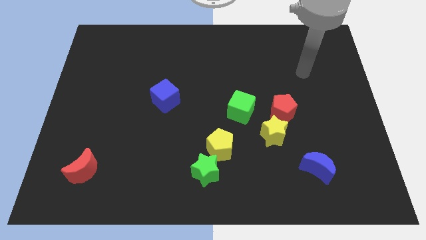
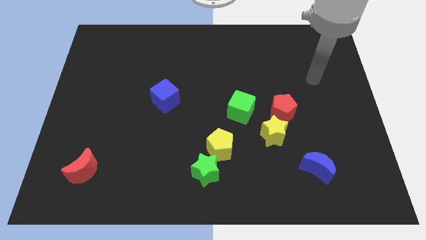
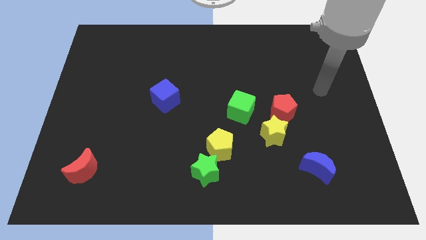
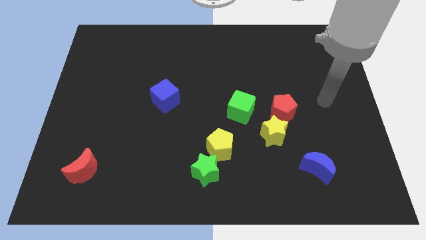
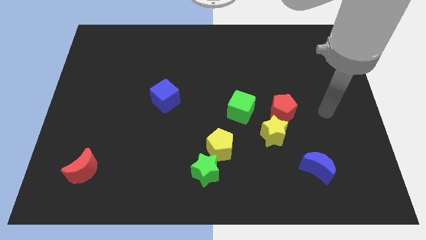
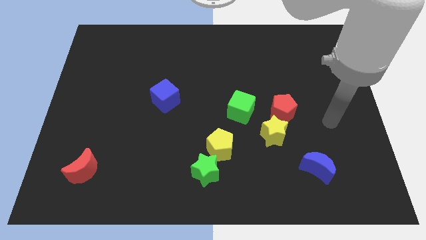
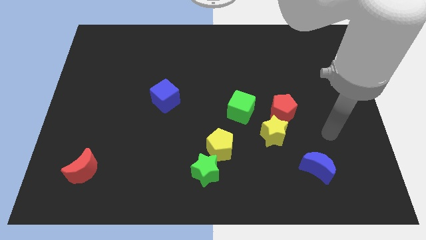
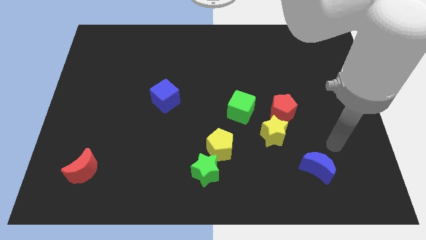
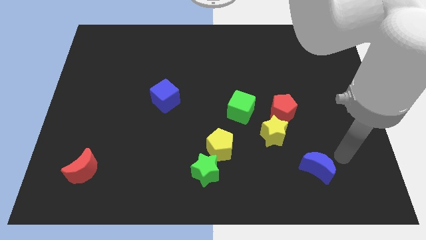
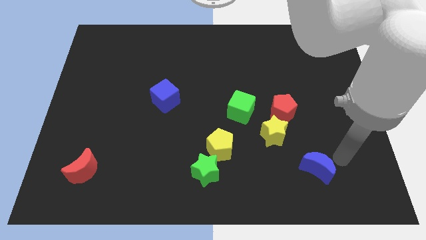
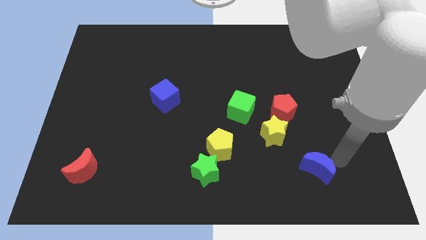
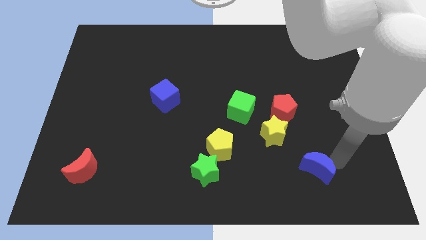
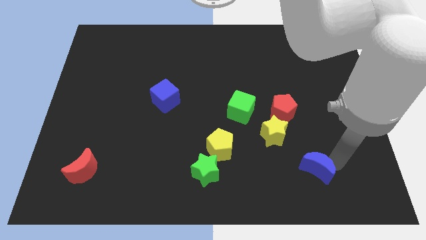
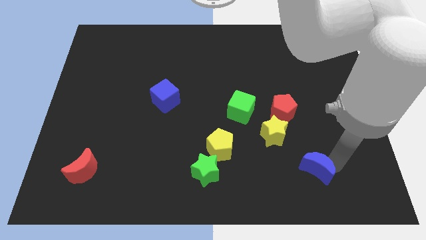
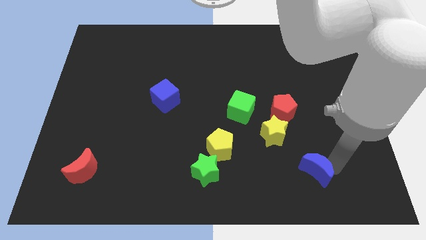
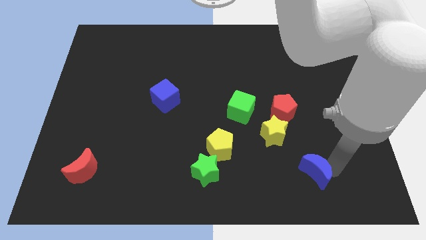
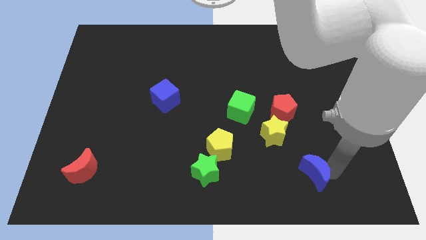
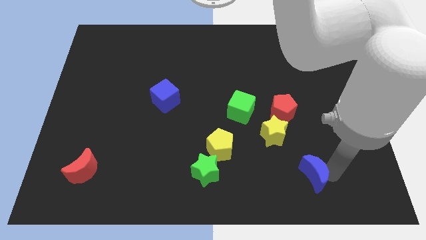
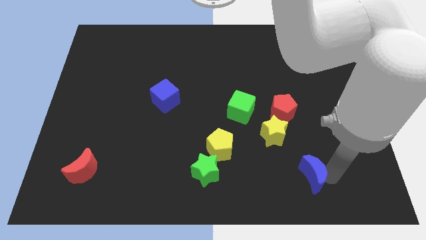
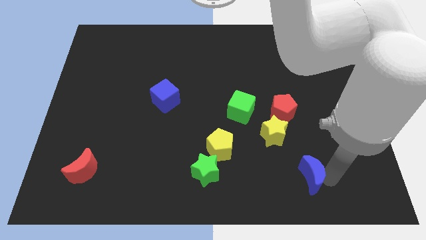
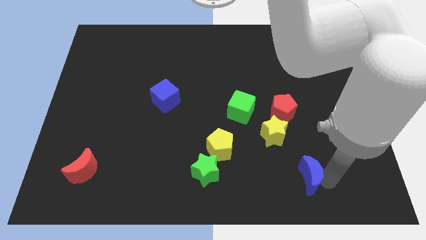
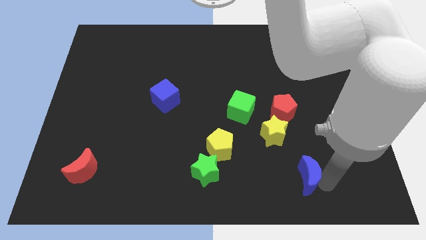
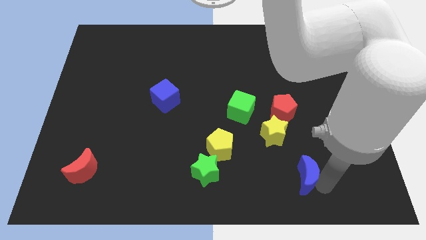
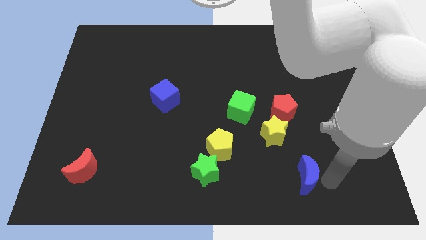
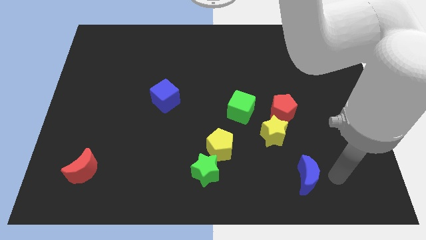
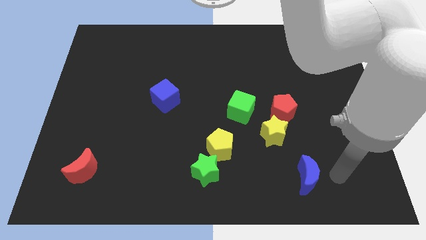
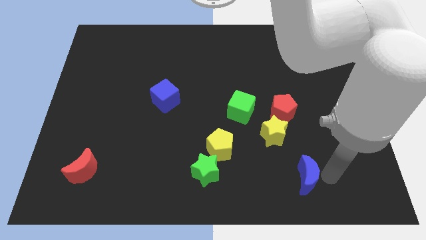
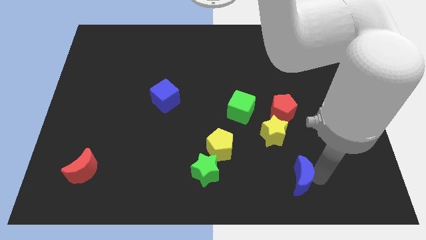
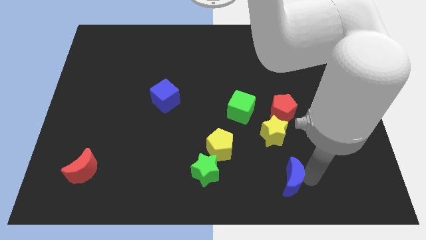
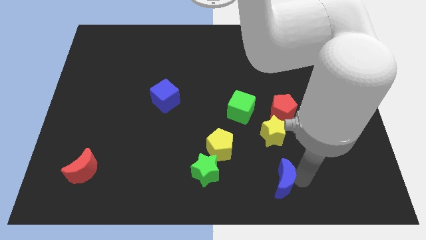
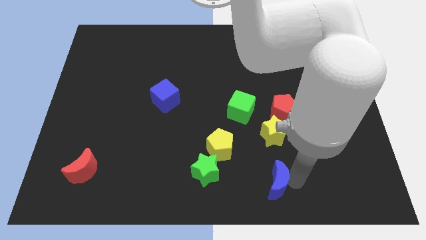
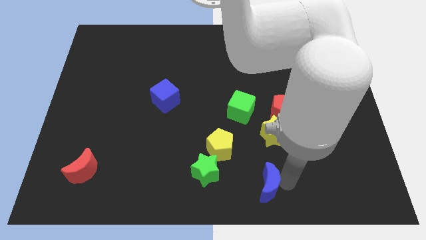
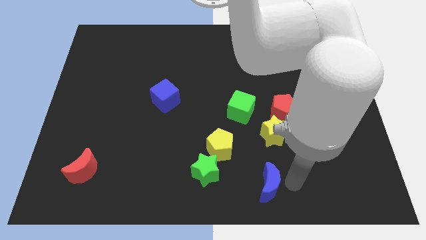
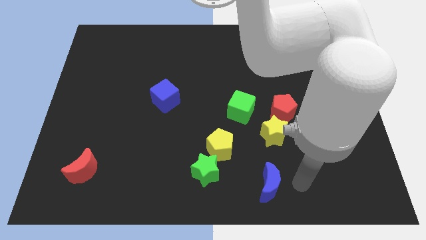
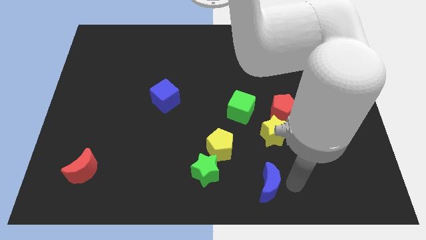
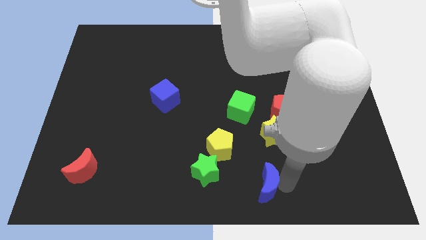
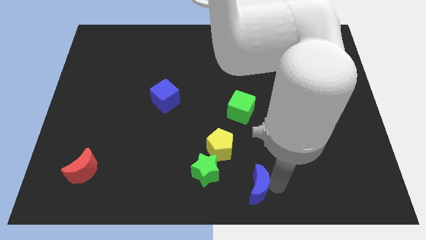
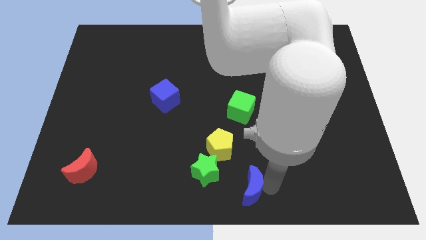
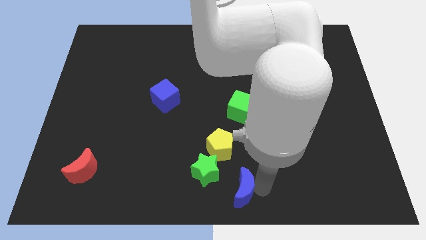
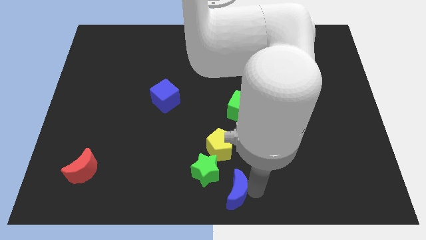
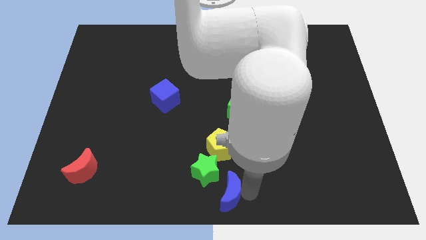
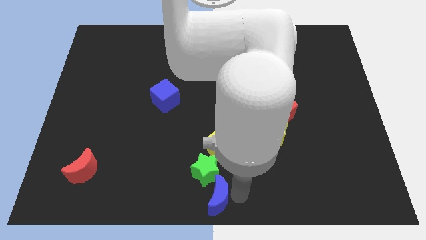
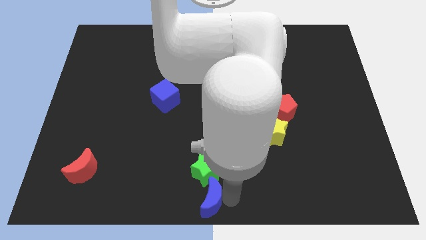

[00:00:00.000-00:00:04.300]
push the blue moon to the left

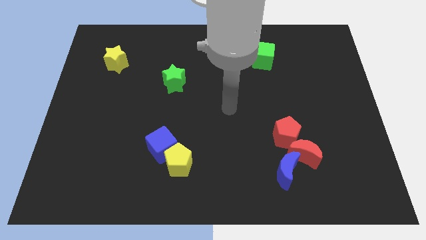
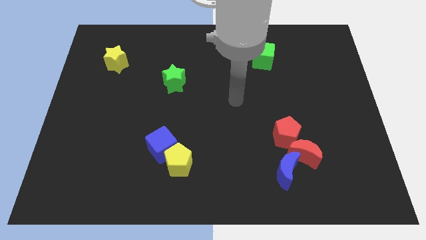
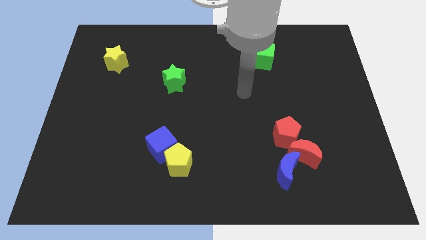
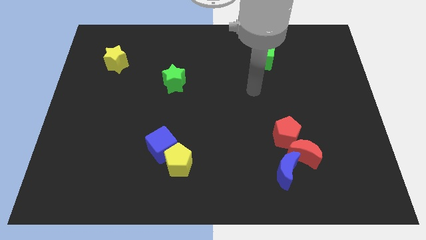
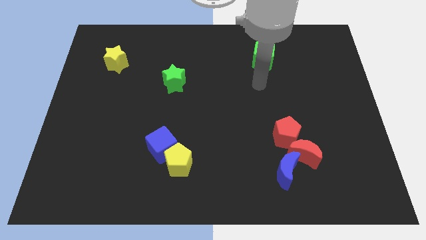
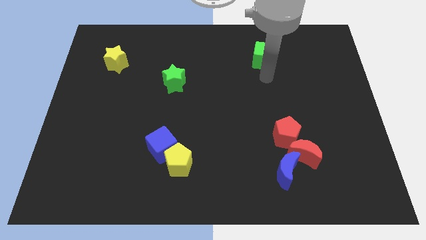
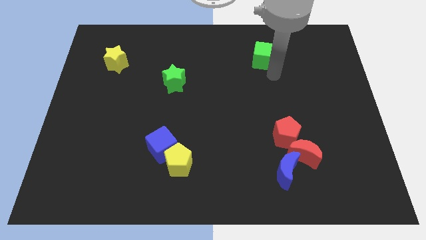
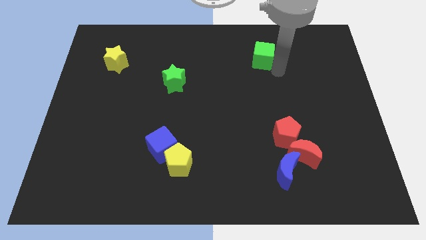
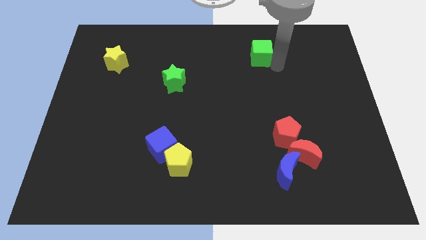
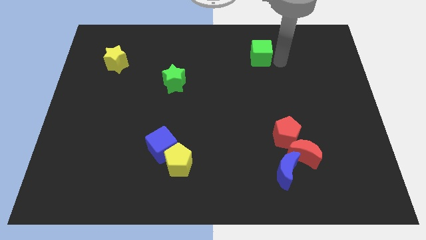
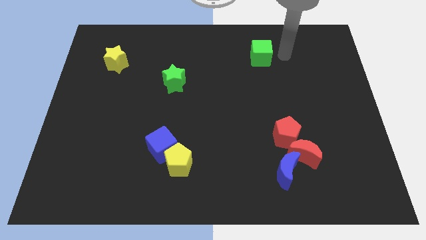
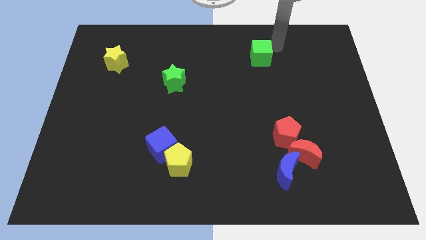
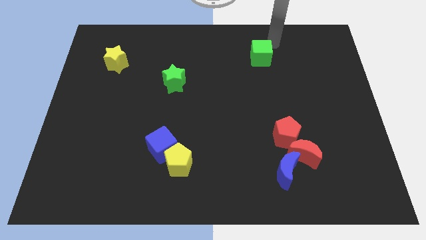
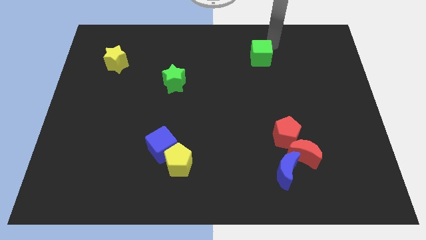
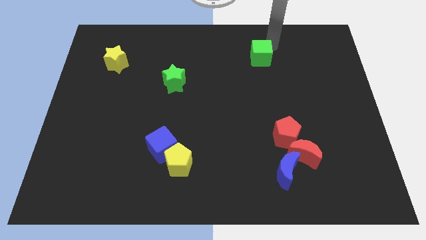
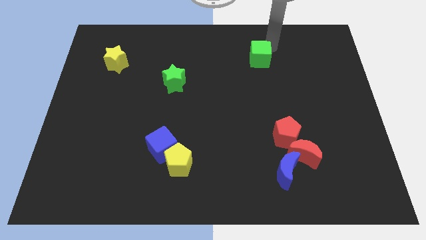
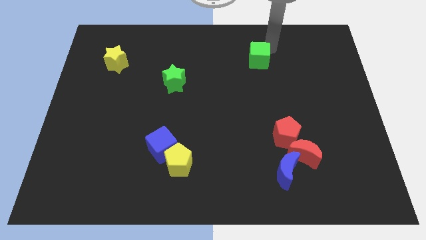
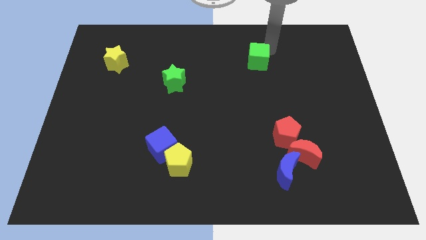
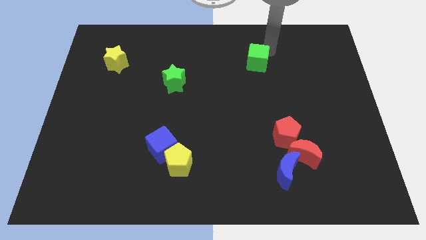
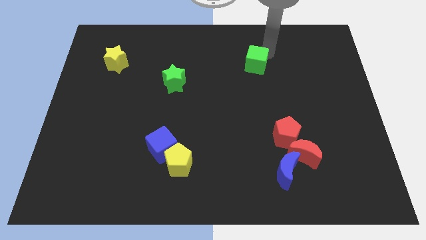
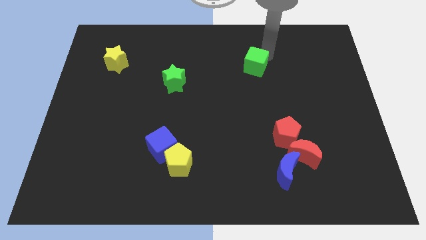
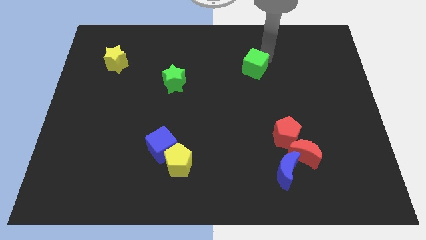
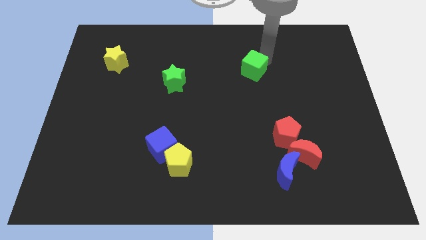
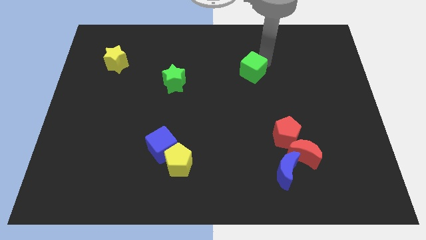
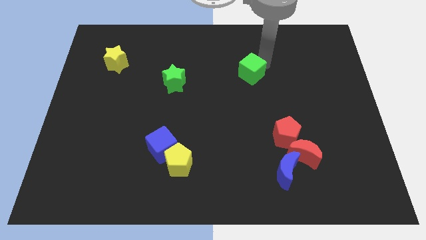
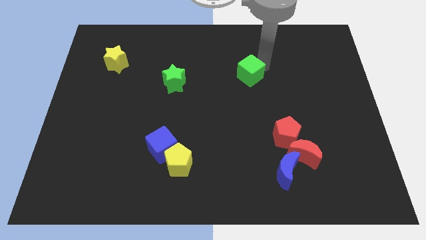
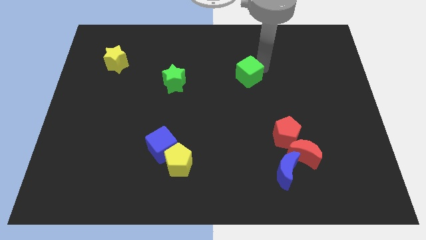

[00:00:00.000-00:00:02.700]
slightly move the green cube down and left diagonally

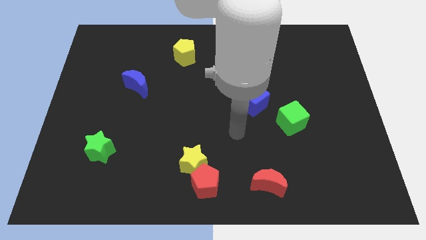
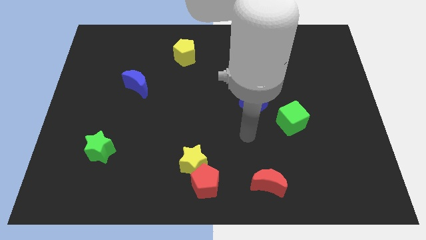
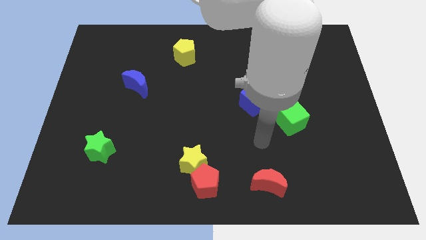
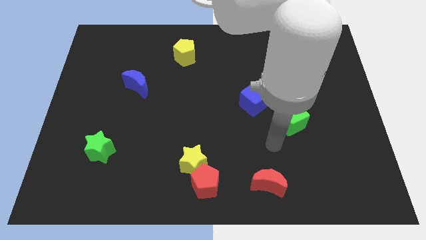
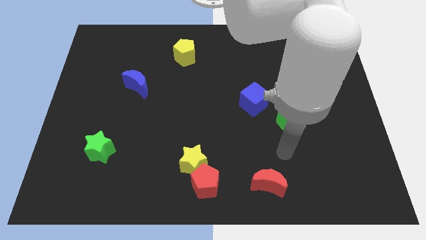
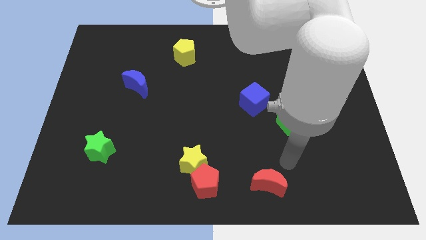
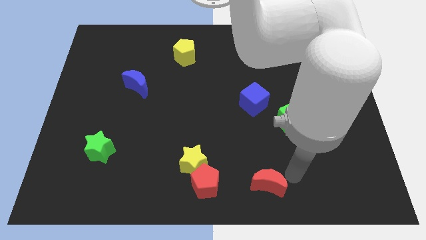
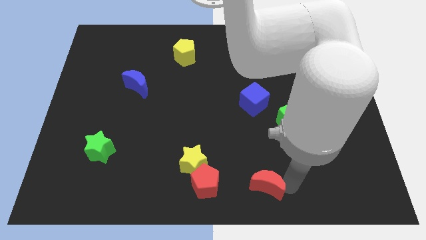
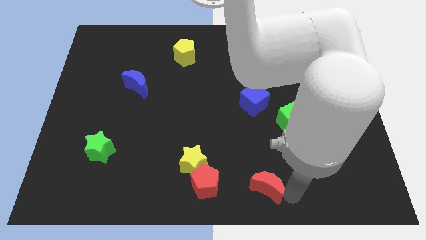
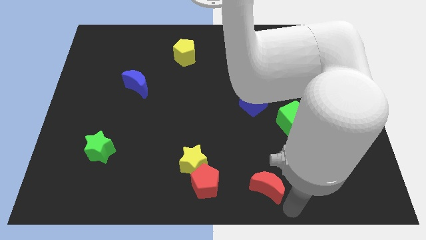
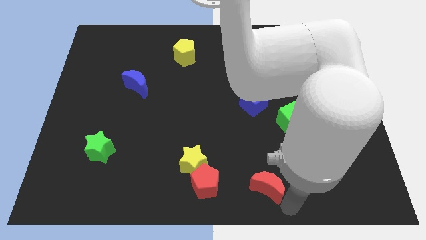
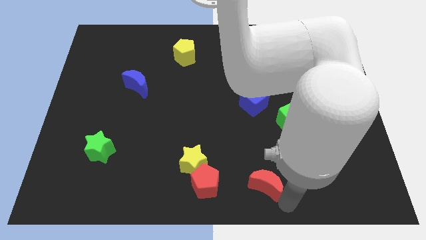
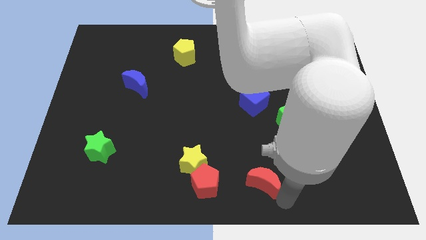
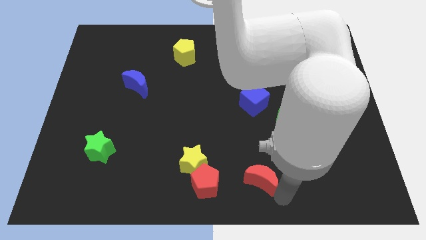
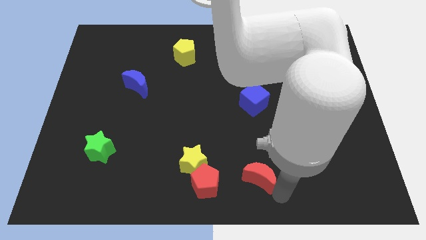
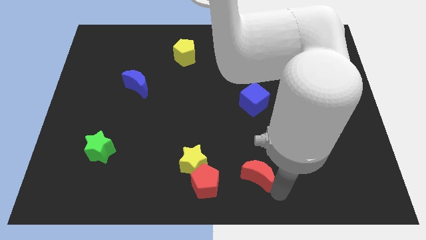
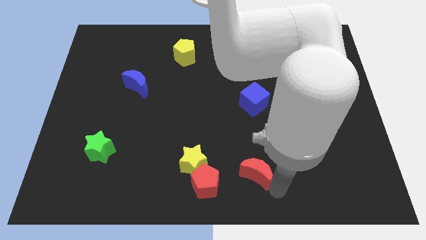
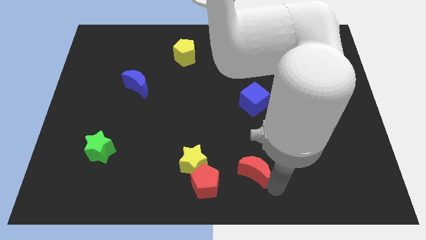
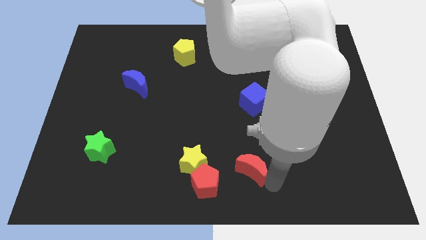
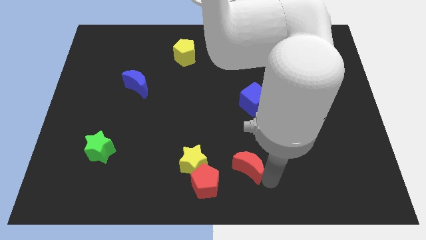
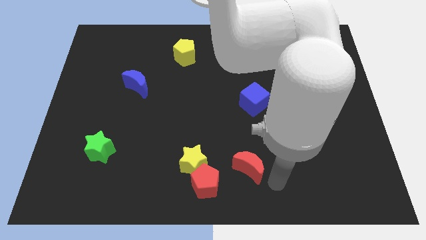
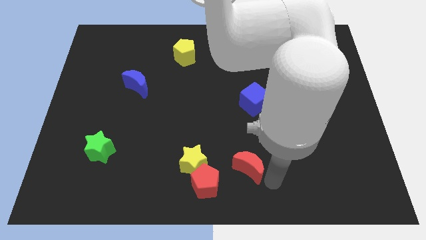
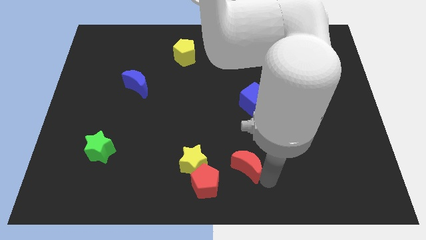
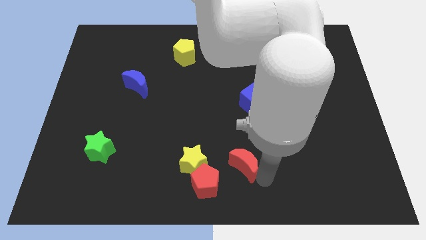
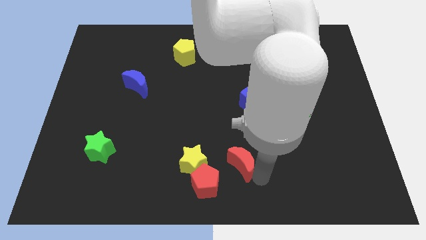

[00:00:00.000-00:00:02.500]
slide the red moon diagonally upwards and to the left a little
